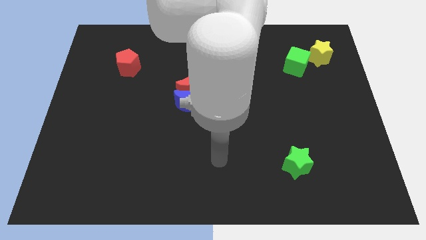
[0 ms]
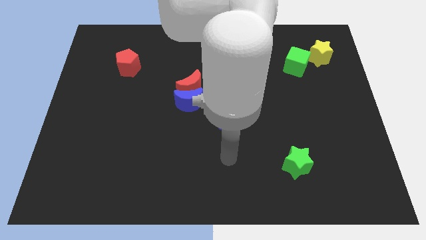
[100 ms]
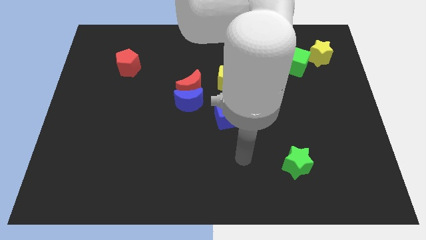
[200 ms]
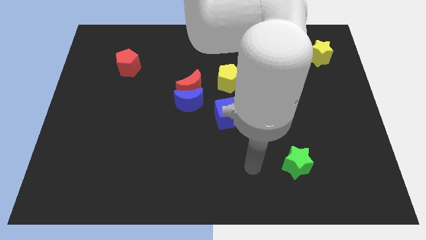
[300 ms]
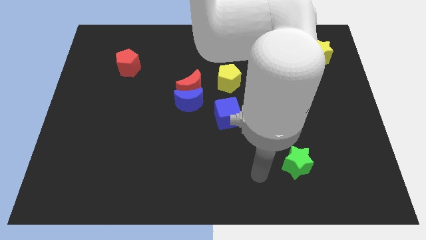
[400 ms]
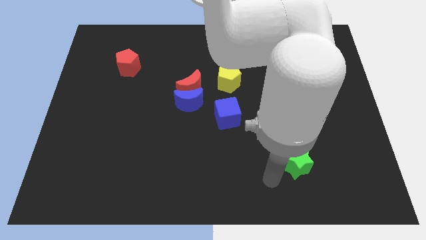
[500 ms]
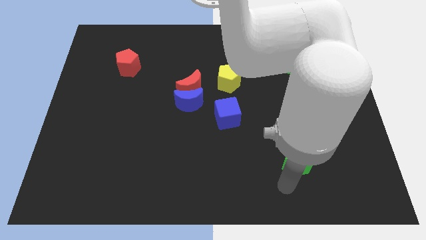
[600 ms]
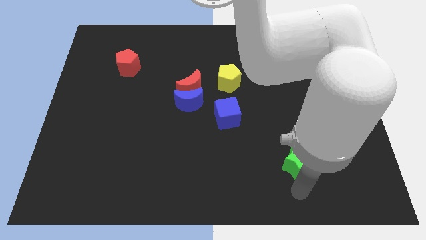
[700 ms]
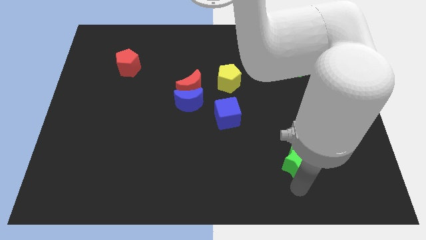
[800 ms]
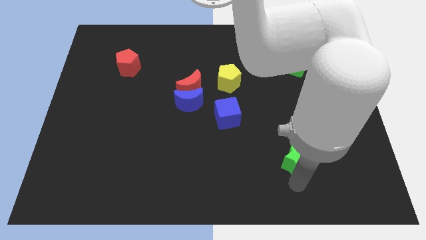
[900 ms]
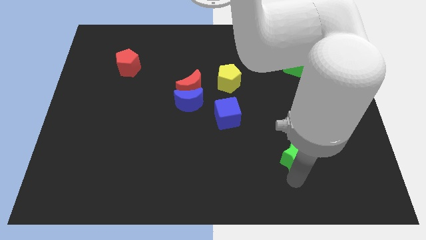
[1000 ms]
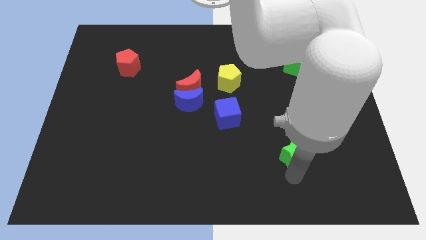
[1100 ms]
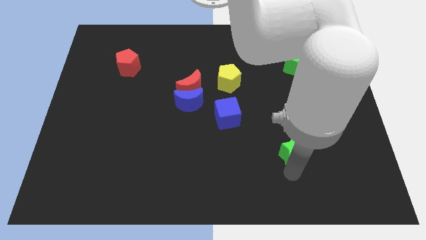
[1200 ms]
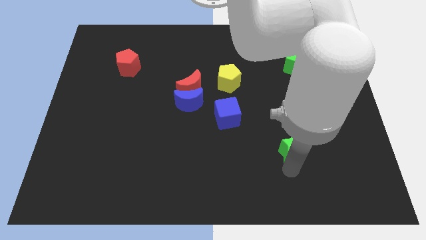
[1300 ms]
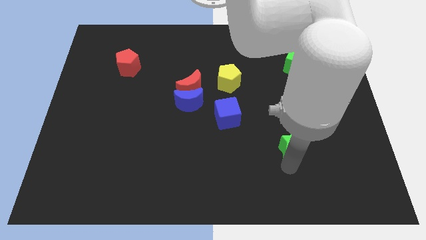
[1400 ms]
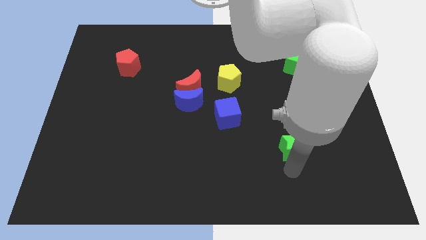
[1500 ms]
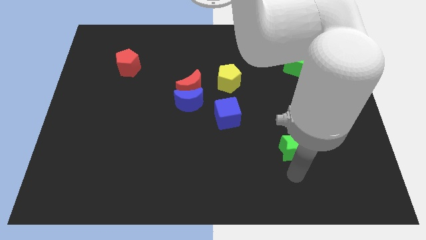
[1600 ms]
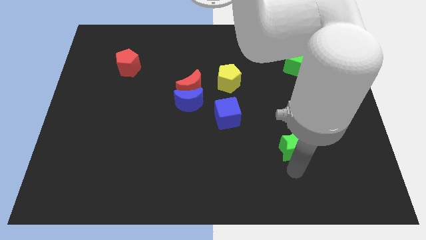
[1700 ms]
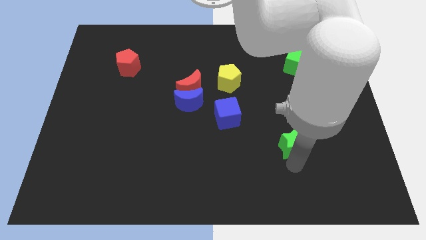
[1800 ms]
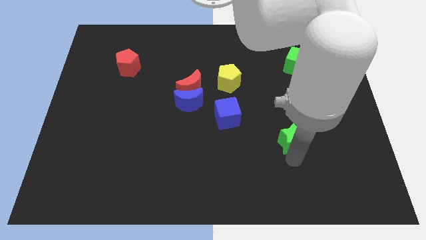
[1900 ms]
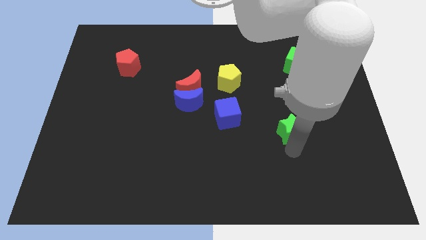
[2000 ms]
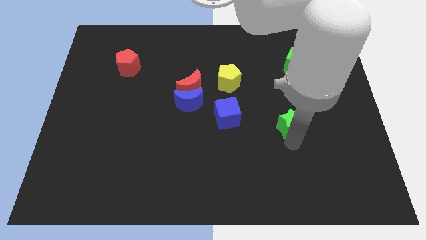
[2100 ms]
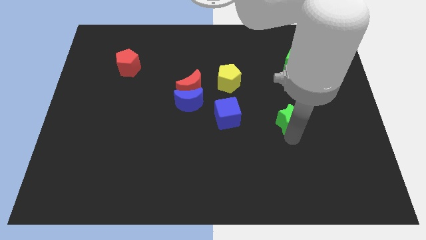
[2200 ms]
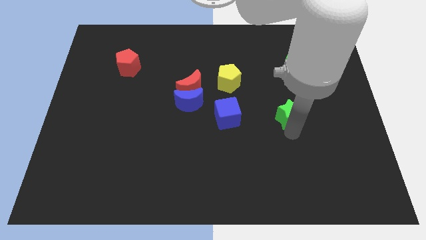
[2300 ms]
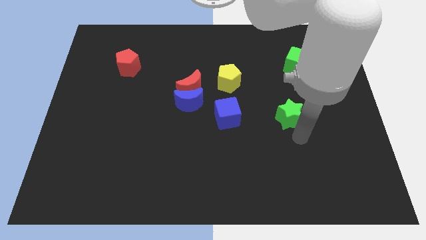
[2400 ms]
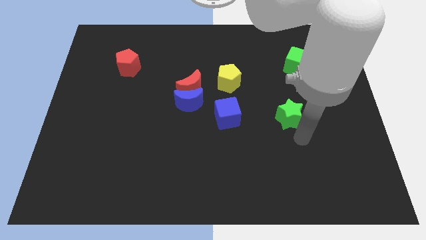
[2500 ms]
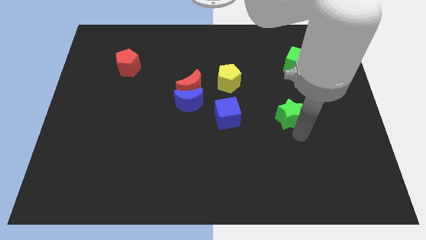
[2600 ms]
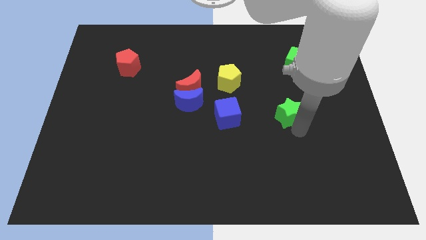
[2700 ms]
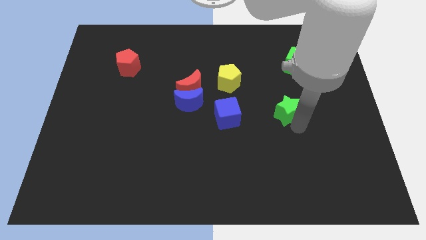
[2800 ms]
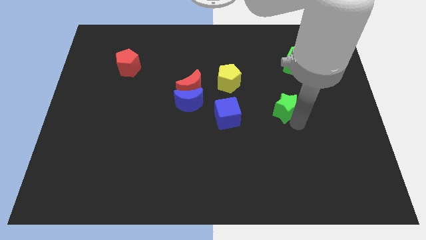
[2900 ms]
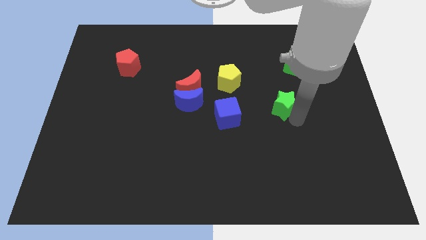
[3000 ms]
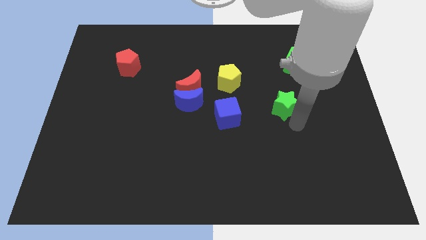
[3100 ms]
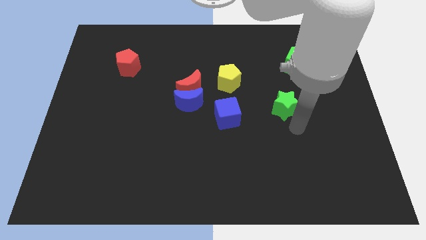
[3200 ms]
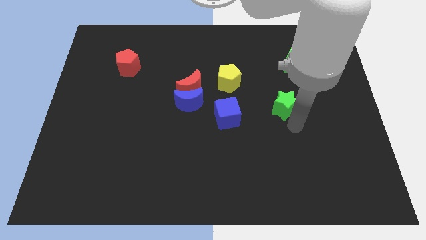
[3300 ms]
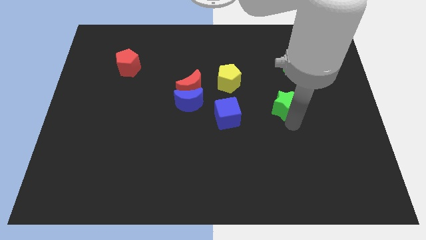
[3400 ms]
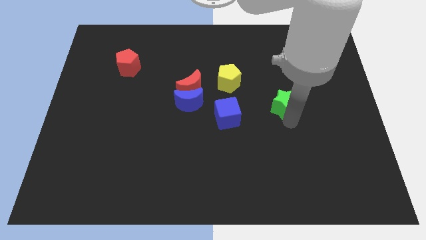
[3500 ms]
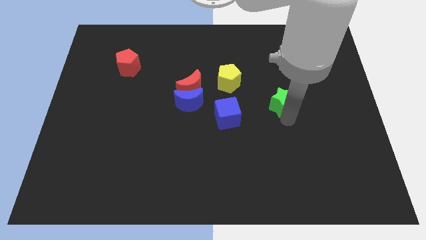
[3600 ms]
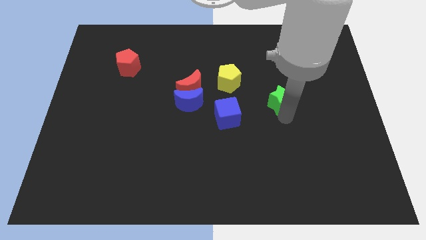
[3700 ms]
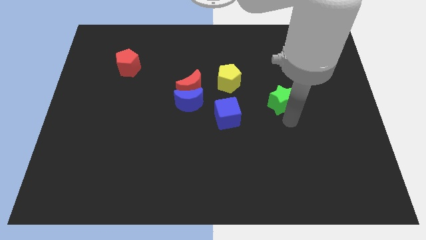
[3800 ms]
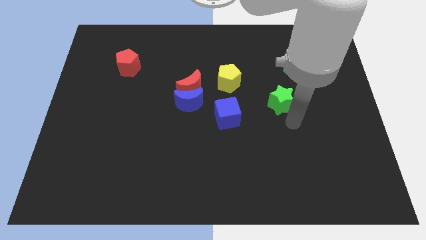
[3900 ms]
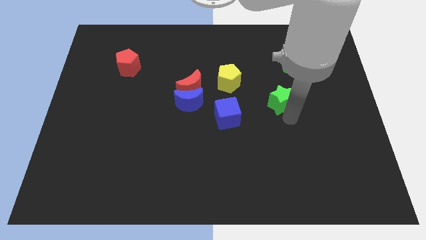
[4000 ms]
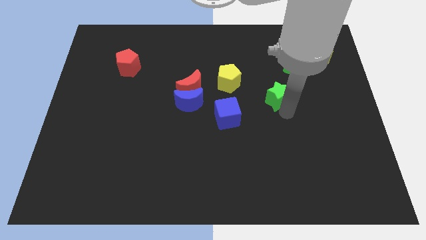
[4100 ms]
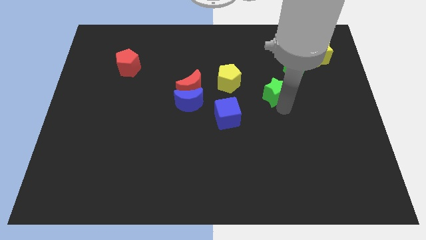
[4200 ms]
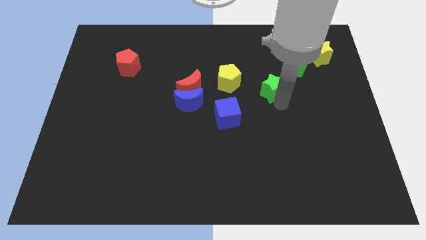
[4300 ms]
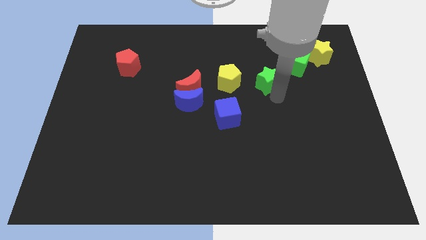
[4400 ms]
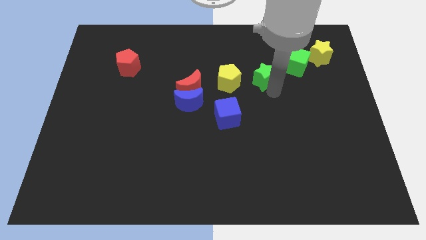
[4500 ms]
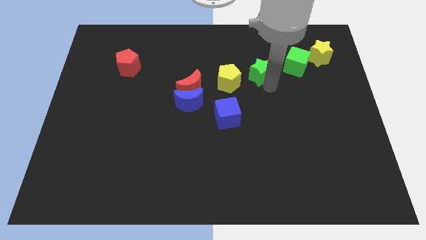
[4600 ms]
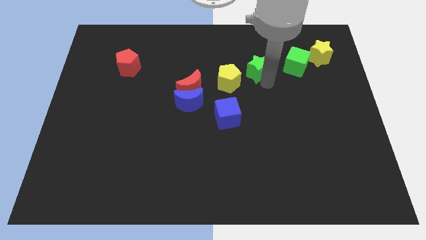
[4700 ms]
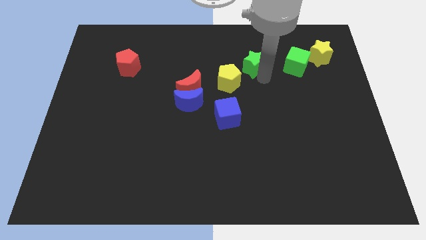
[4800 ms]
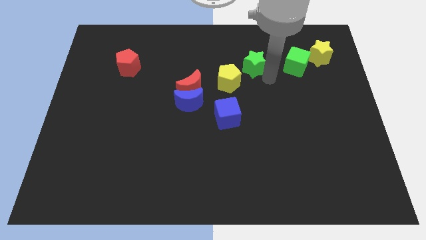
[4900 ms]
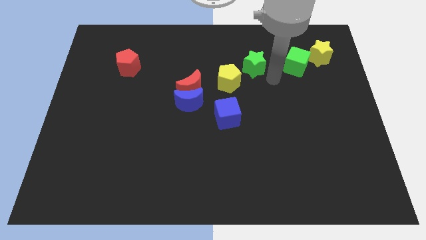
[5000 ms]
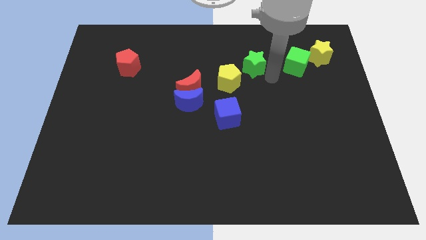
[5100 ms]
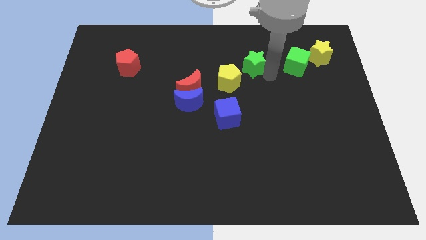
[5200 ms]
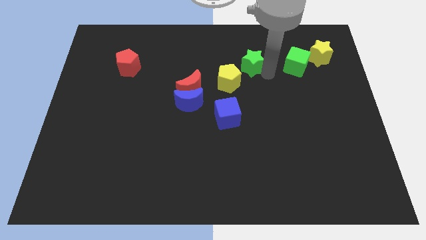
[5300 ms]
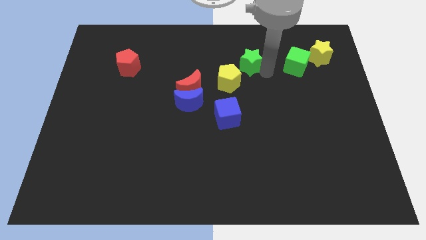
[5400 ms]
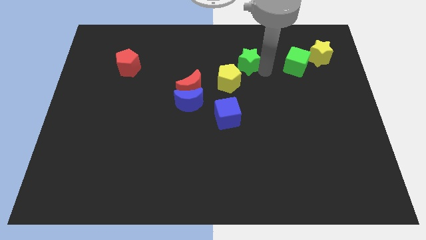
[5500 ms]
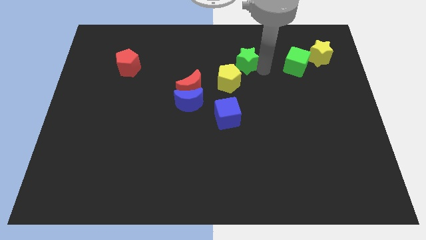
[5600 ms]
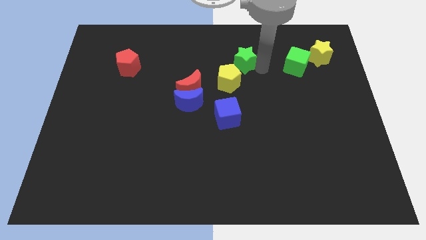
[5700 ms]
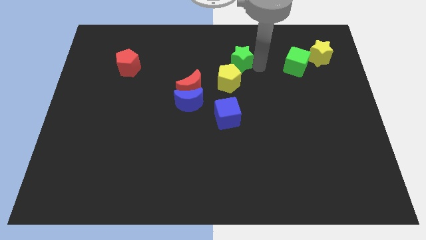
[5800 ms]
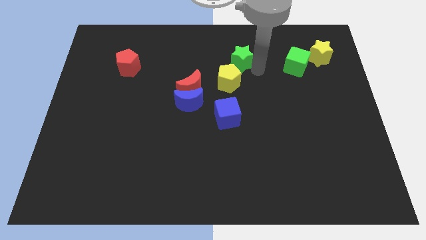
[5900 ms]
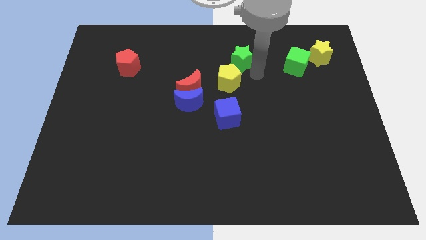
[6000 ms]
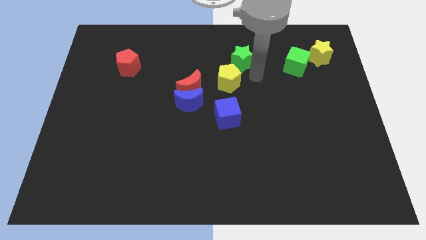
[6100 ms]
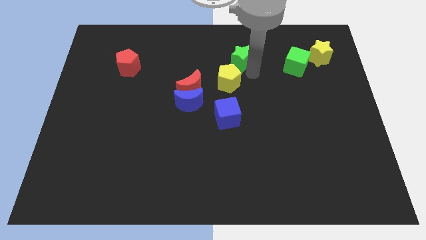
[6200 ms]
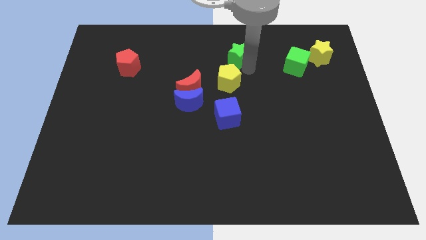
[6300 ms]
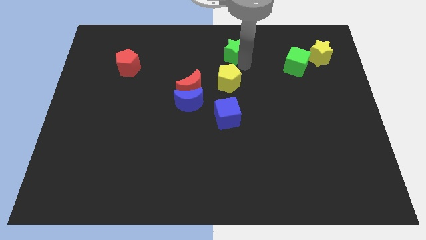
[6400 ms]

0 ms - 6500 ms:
slide the green star to the towards your base
